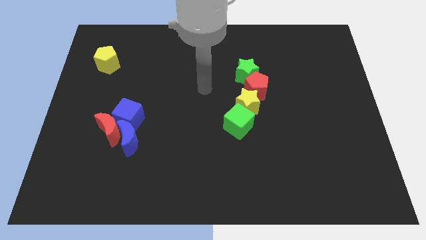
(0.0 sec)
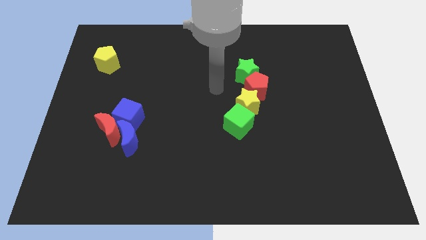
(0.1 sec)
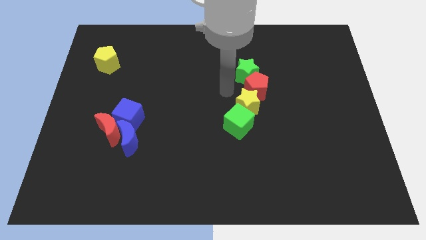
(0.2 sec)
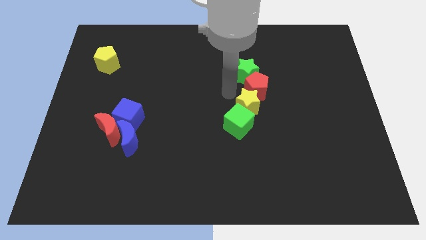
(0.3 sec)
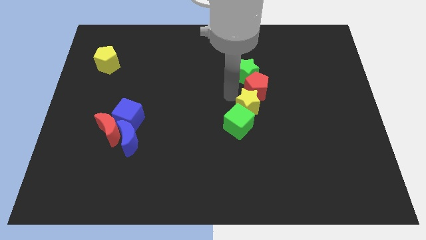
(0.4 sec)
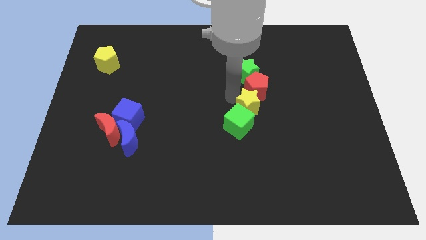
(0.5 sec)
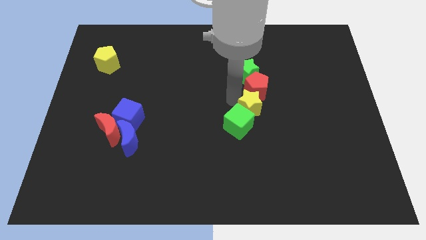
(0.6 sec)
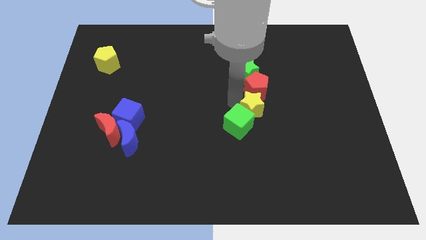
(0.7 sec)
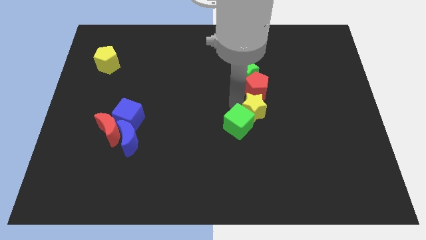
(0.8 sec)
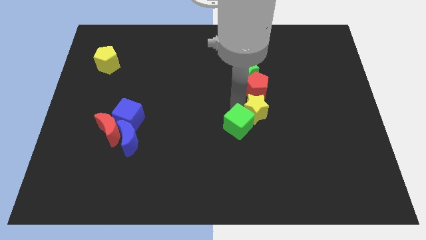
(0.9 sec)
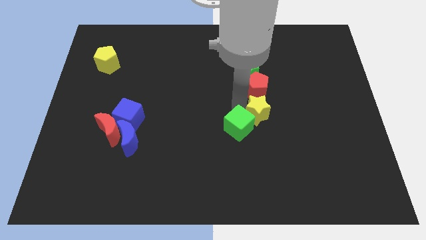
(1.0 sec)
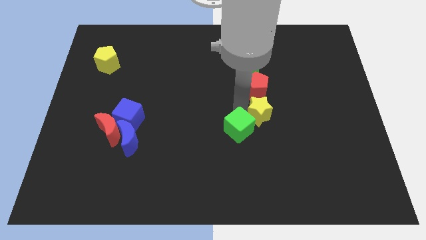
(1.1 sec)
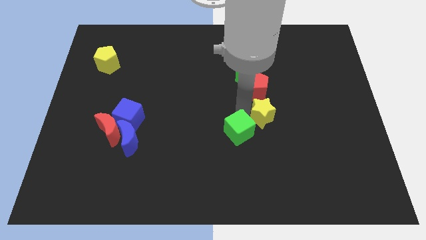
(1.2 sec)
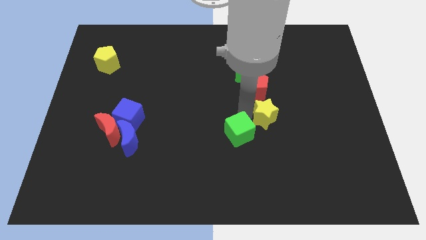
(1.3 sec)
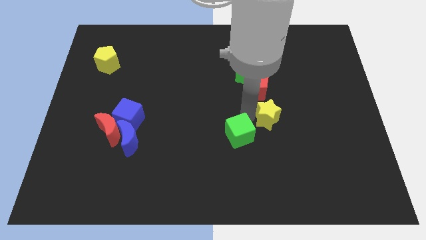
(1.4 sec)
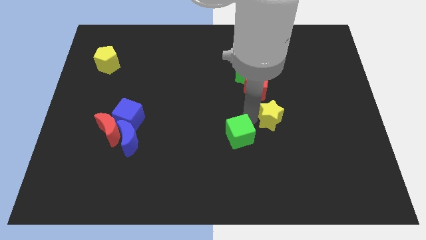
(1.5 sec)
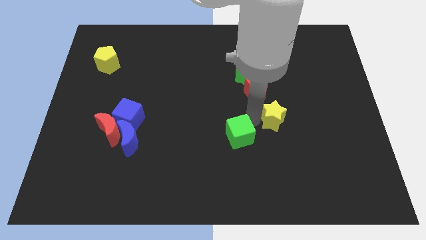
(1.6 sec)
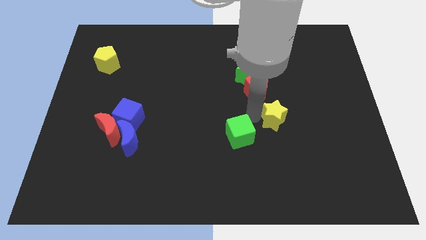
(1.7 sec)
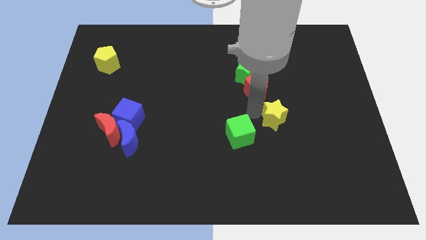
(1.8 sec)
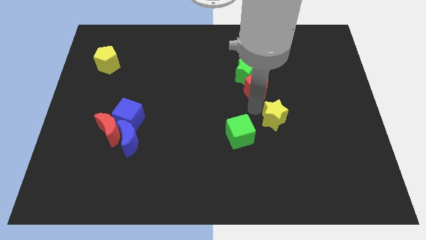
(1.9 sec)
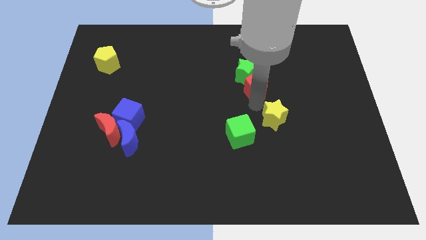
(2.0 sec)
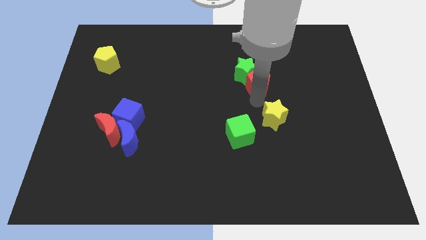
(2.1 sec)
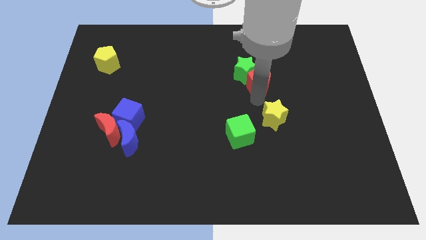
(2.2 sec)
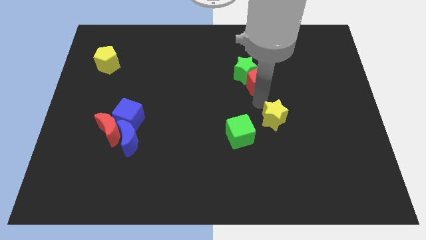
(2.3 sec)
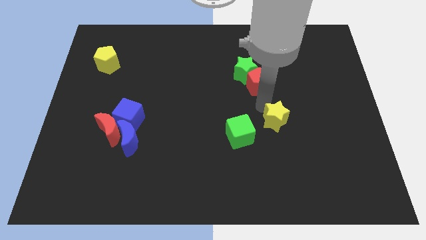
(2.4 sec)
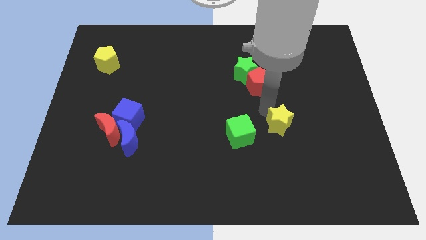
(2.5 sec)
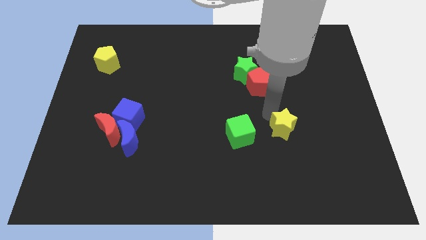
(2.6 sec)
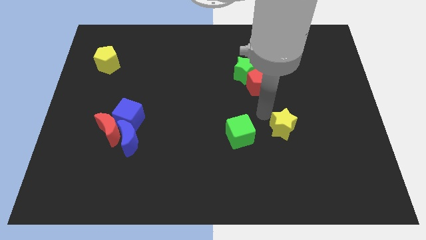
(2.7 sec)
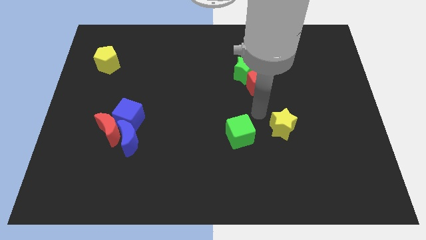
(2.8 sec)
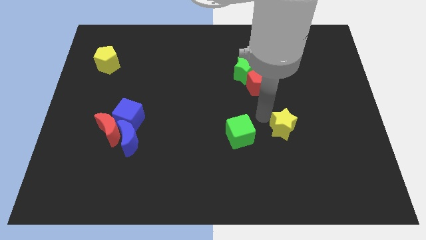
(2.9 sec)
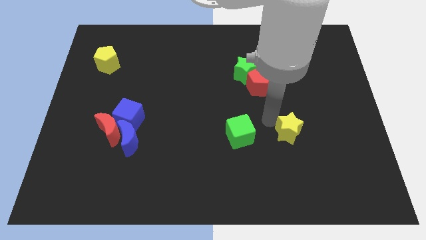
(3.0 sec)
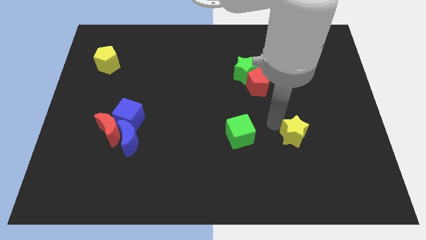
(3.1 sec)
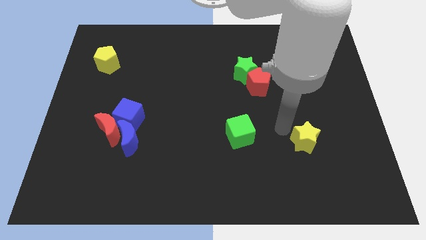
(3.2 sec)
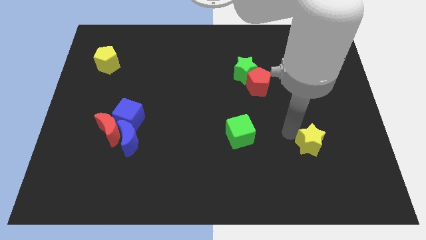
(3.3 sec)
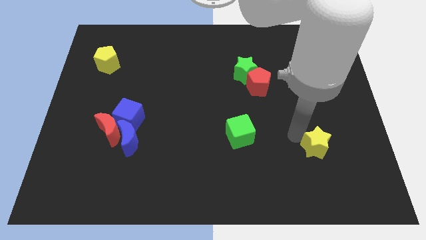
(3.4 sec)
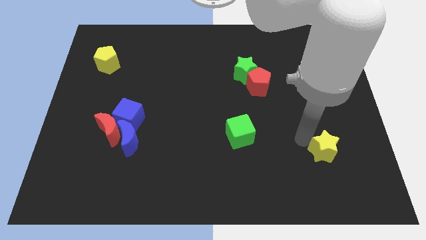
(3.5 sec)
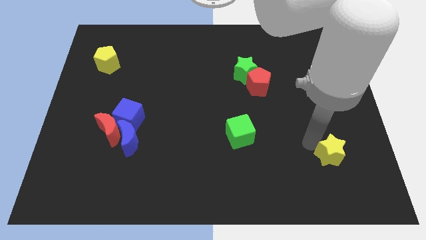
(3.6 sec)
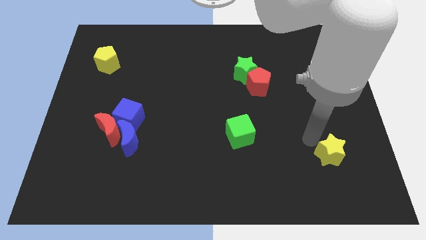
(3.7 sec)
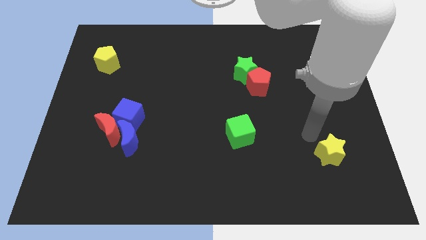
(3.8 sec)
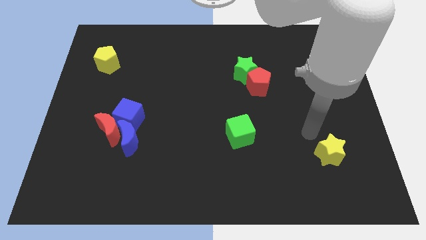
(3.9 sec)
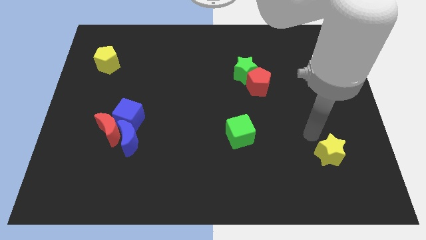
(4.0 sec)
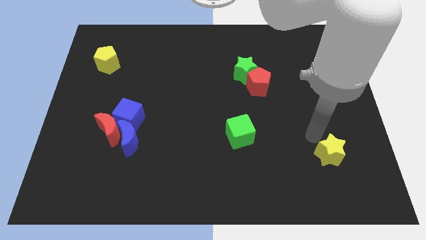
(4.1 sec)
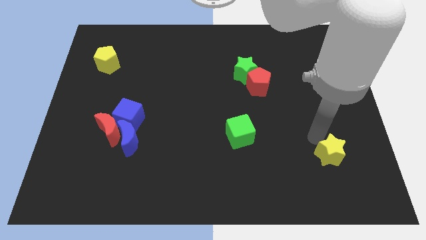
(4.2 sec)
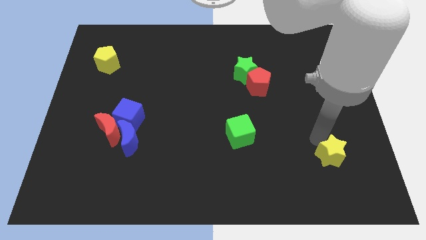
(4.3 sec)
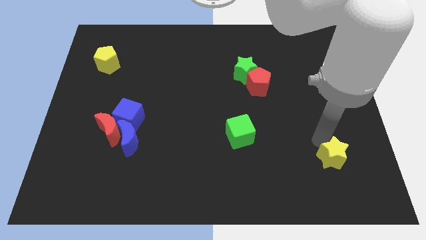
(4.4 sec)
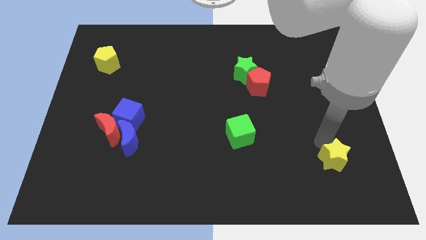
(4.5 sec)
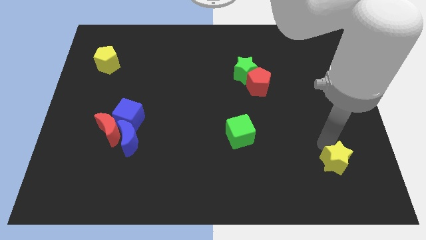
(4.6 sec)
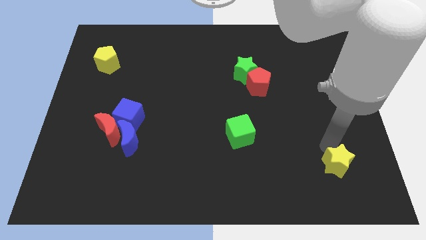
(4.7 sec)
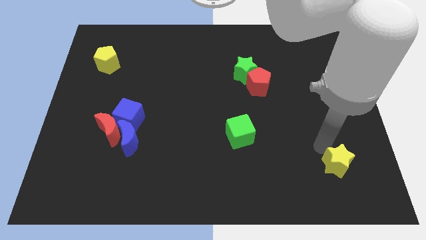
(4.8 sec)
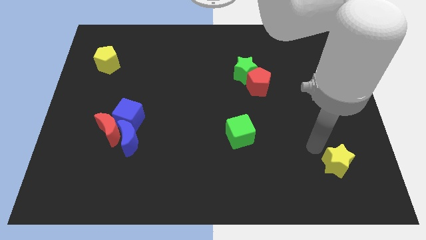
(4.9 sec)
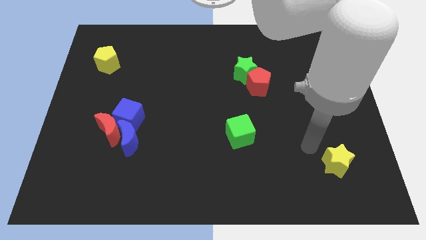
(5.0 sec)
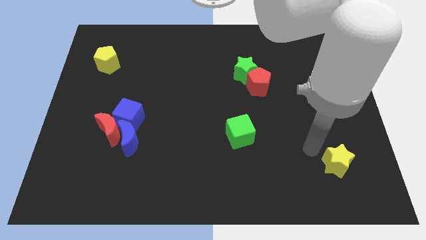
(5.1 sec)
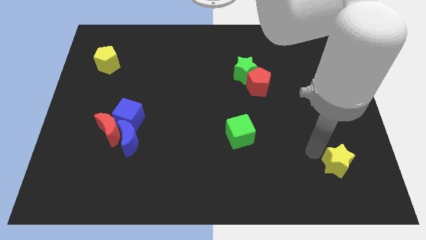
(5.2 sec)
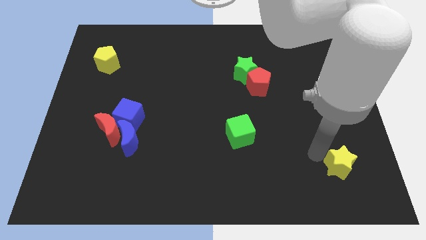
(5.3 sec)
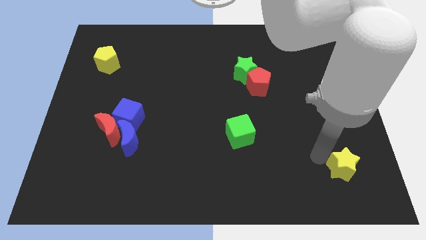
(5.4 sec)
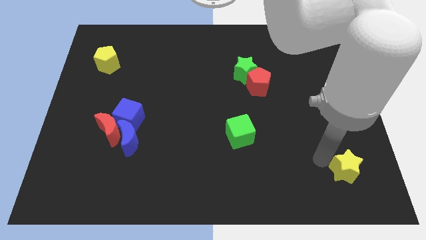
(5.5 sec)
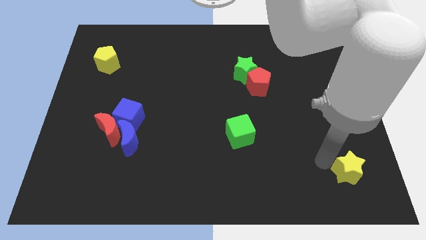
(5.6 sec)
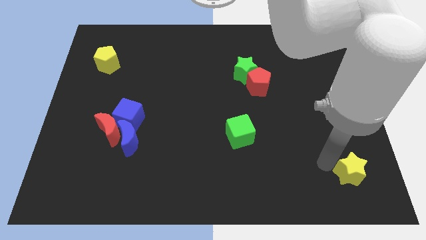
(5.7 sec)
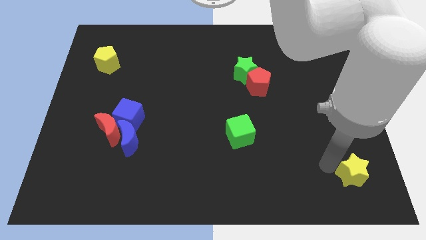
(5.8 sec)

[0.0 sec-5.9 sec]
slide the yellow star to the lower right corner

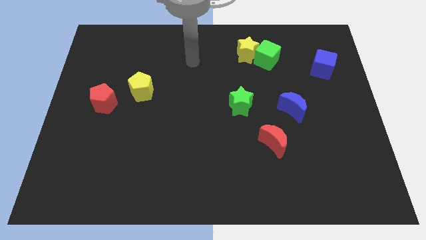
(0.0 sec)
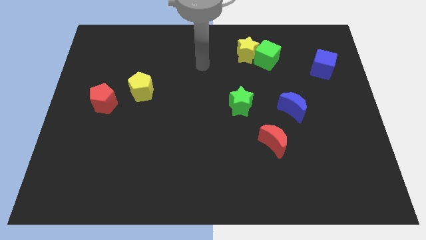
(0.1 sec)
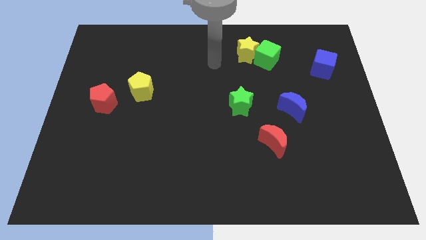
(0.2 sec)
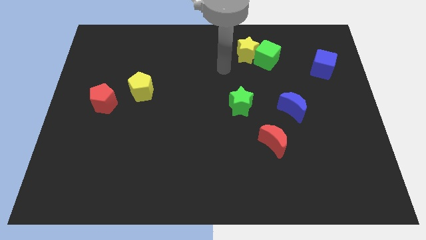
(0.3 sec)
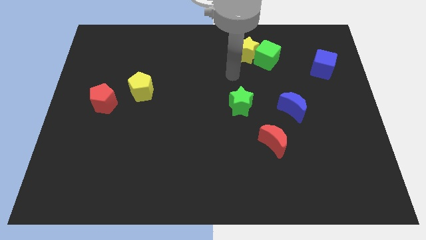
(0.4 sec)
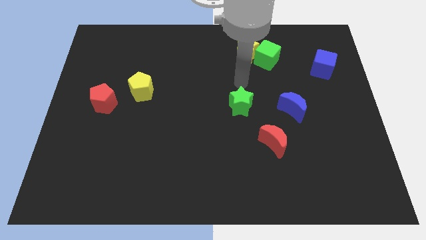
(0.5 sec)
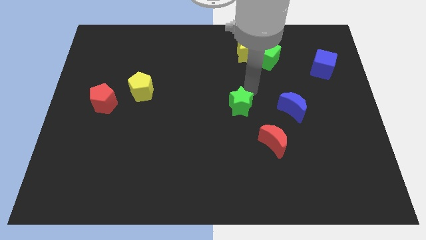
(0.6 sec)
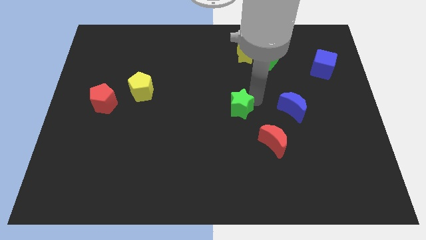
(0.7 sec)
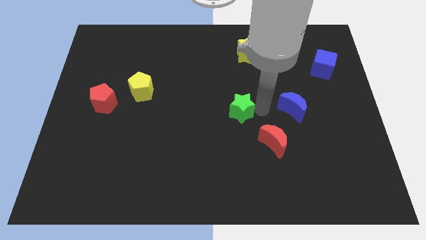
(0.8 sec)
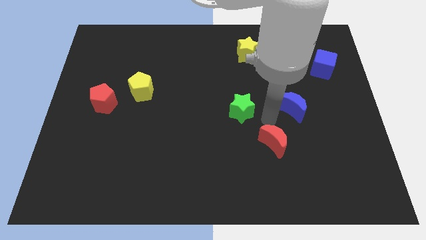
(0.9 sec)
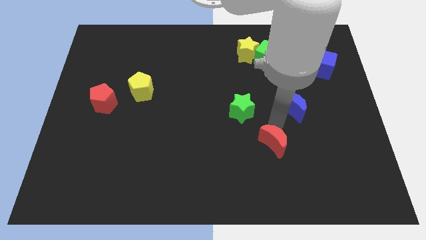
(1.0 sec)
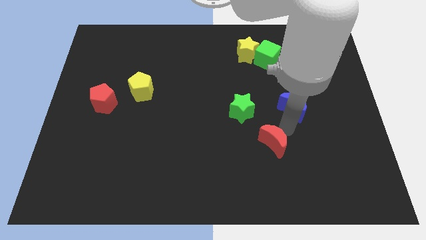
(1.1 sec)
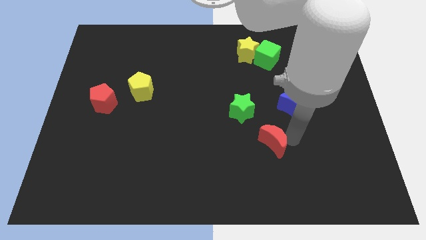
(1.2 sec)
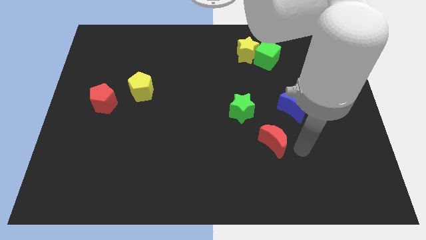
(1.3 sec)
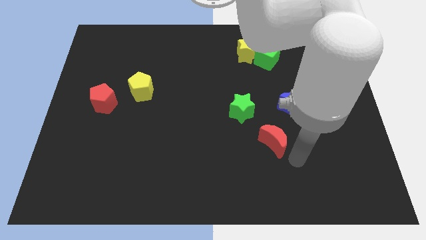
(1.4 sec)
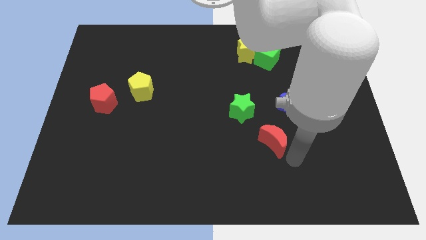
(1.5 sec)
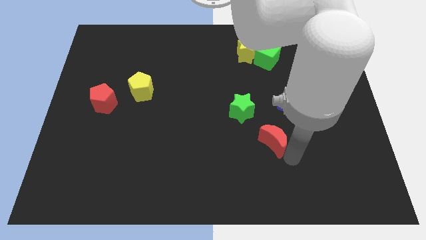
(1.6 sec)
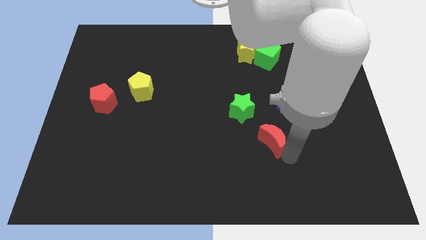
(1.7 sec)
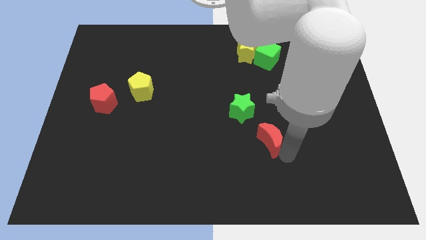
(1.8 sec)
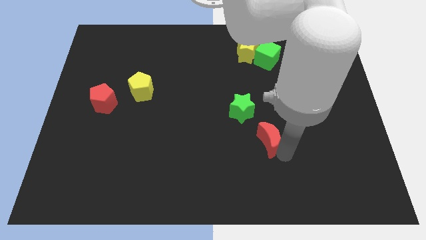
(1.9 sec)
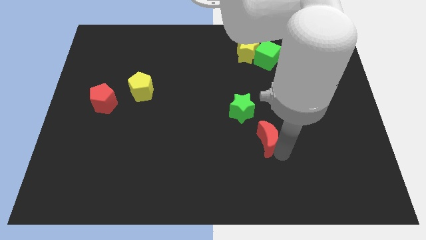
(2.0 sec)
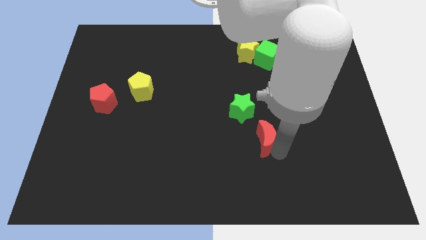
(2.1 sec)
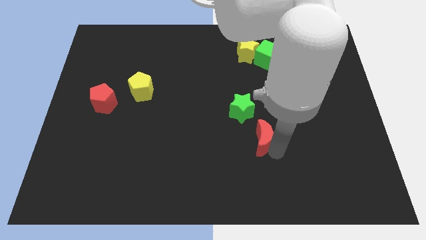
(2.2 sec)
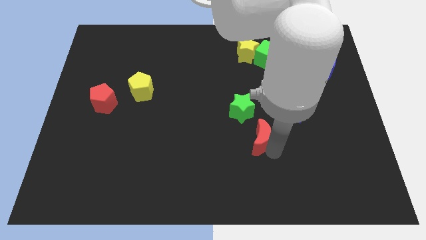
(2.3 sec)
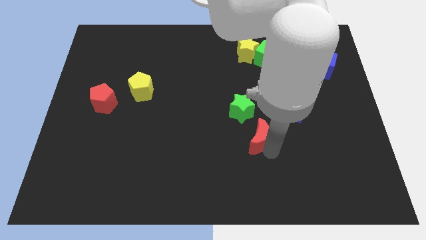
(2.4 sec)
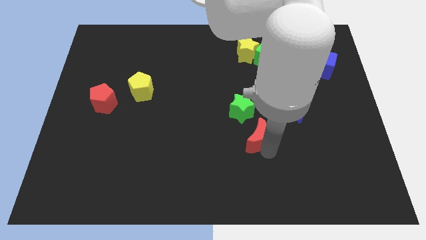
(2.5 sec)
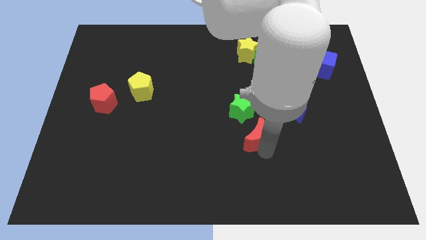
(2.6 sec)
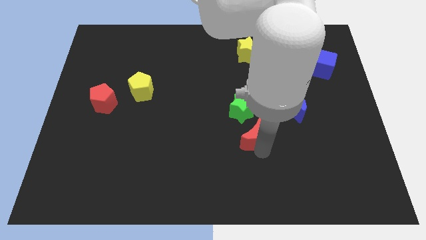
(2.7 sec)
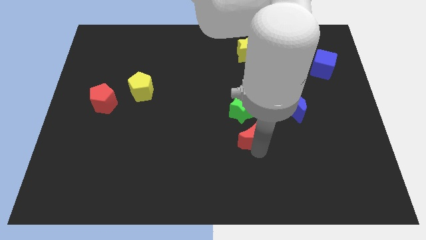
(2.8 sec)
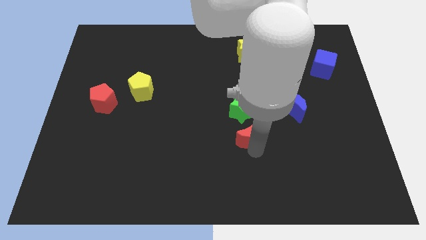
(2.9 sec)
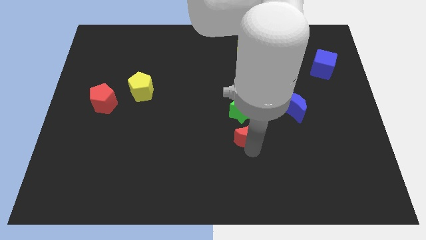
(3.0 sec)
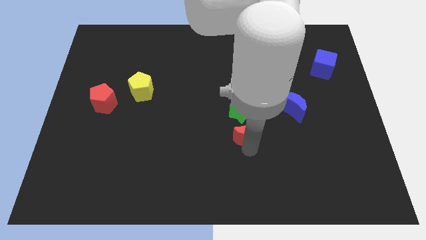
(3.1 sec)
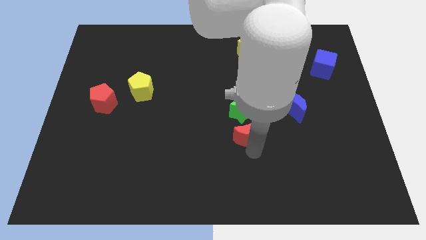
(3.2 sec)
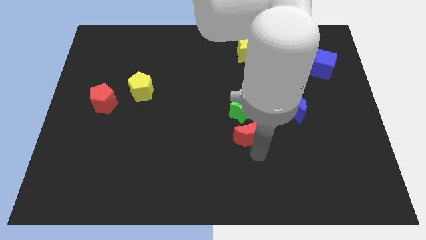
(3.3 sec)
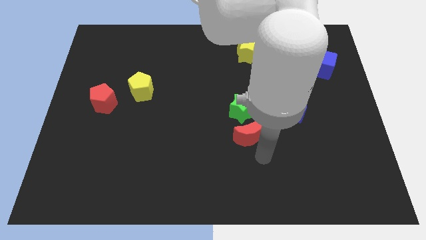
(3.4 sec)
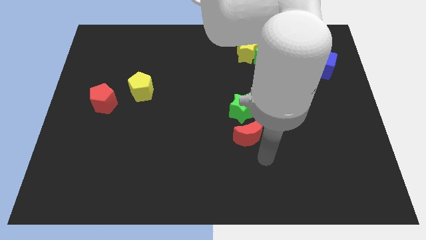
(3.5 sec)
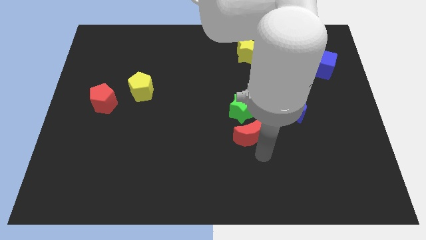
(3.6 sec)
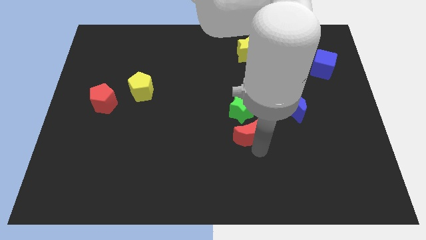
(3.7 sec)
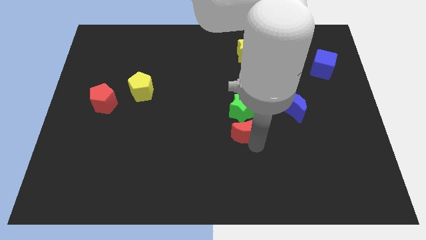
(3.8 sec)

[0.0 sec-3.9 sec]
move the red moon to the center of the board
